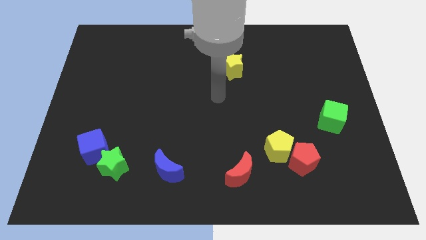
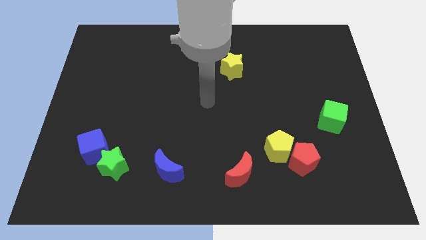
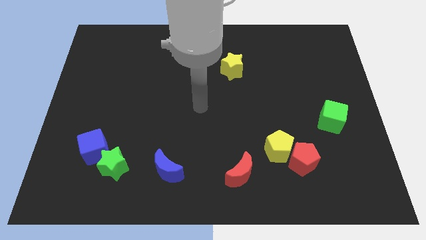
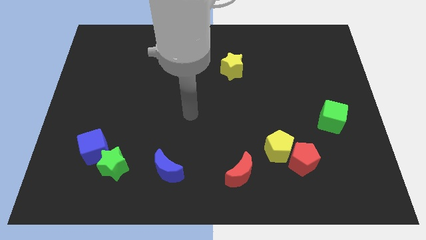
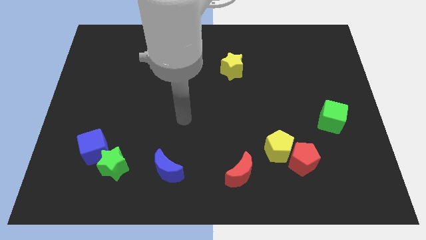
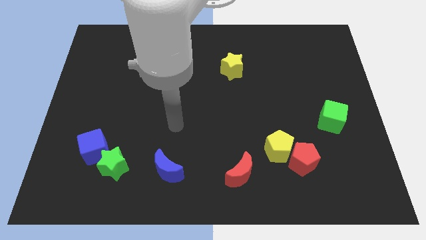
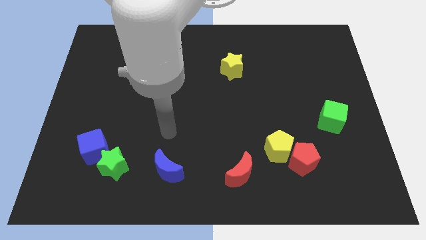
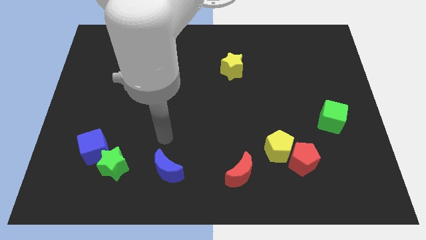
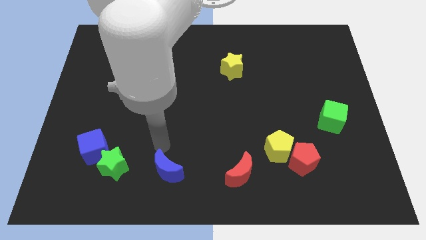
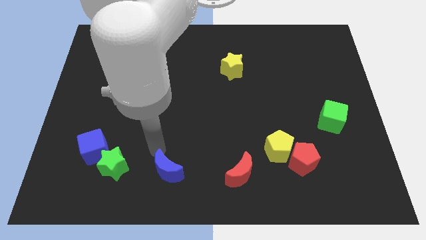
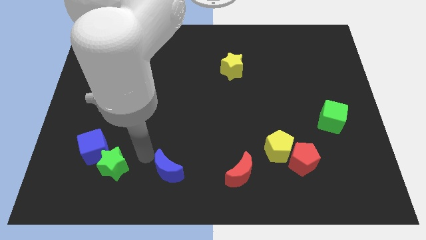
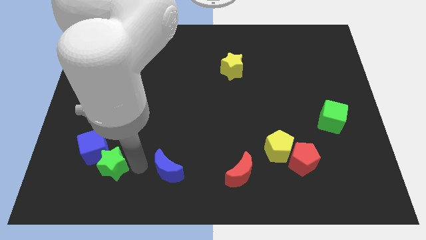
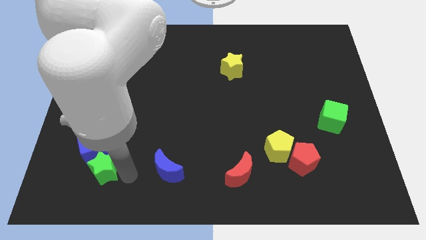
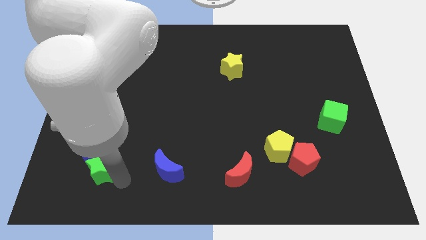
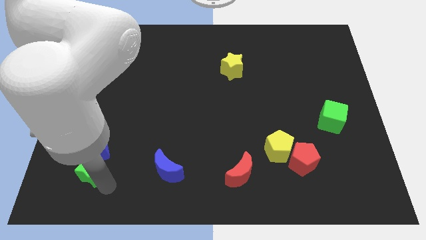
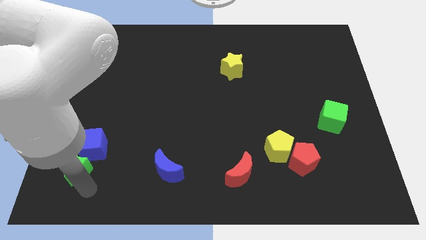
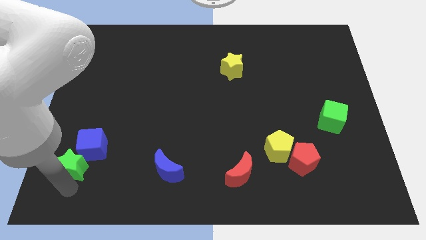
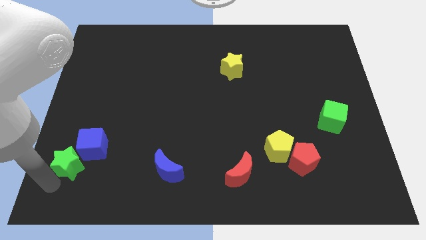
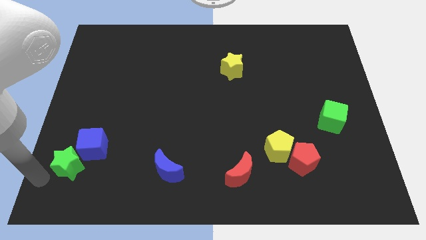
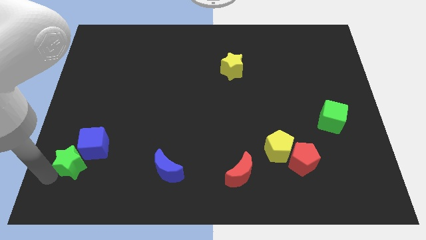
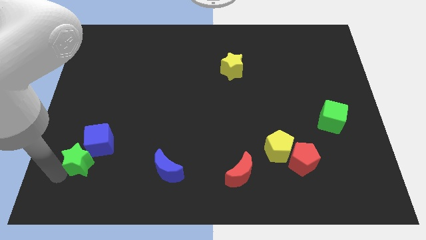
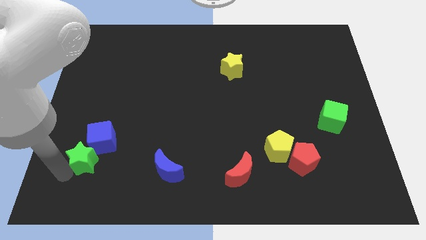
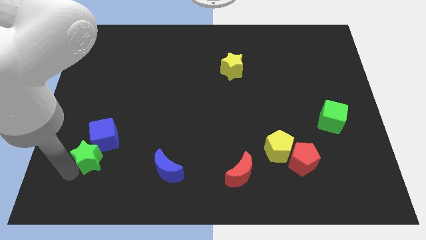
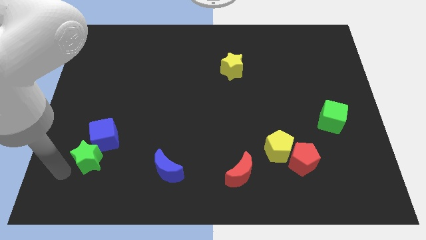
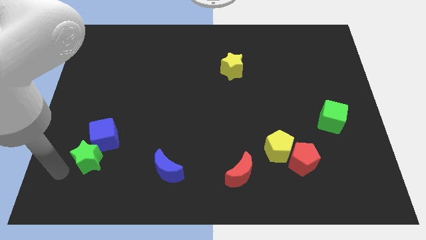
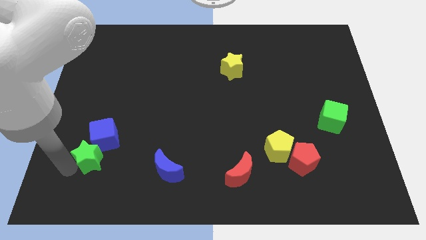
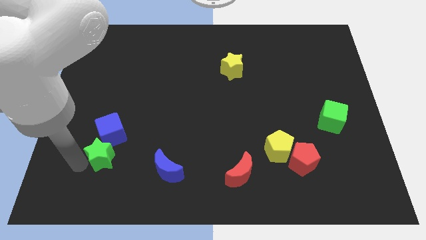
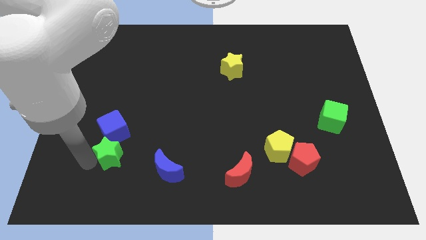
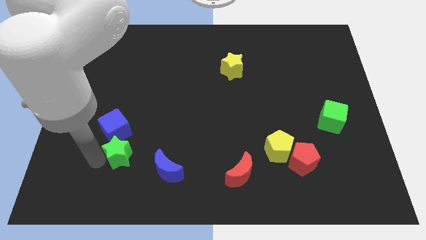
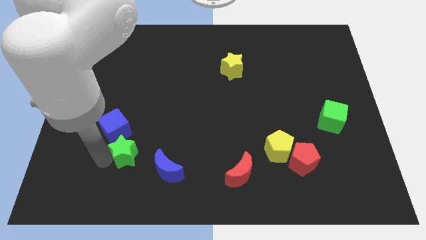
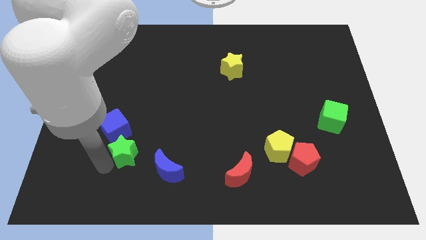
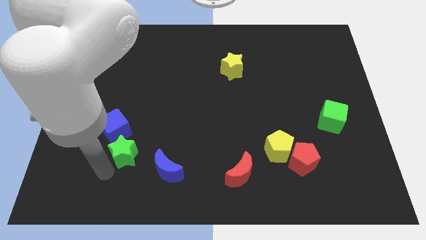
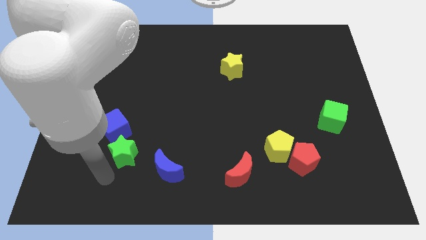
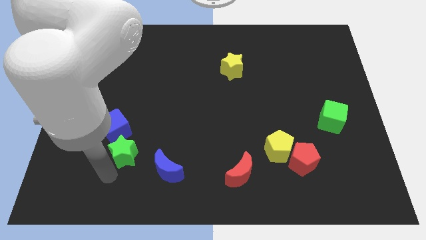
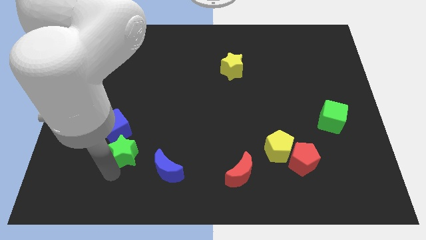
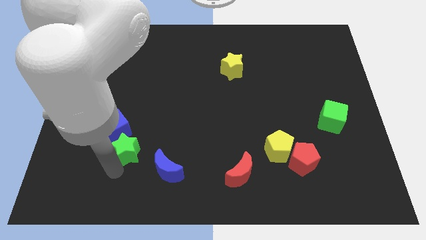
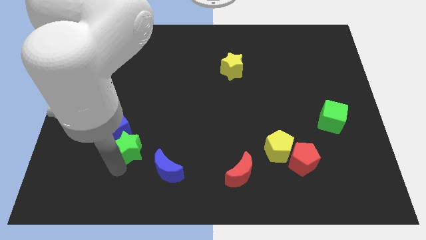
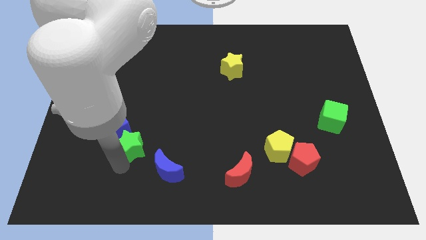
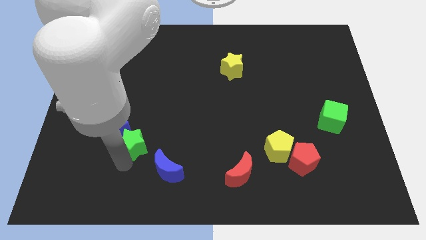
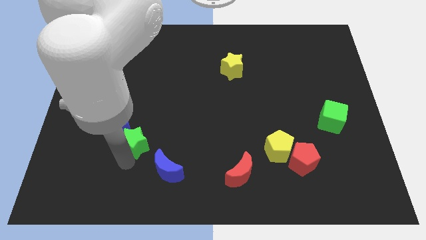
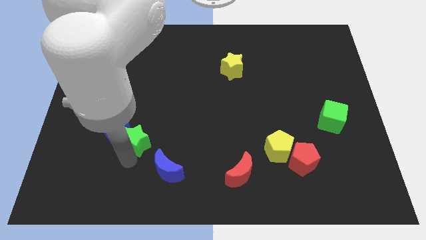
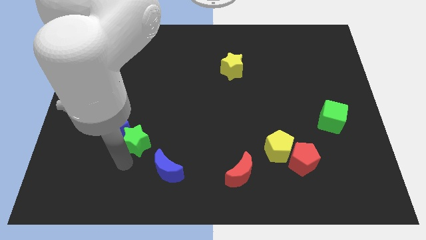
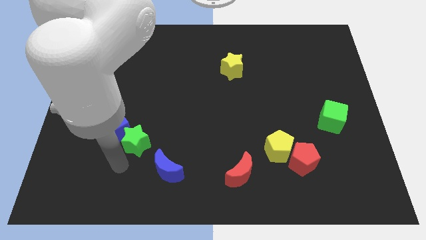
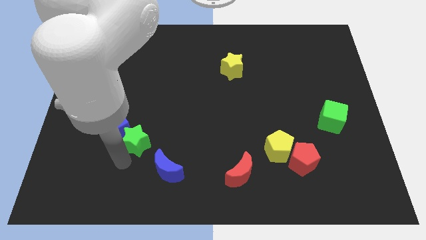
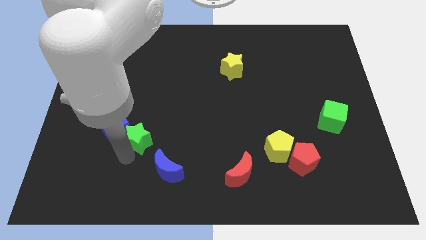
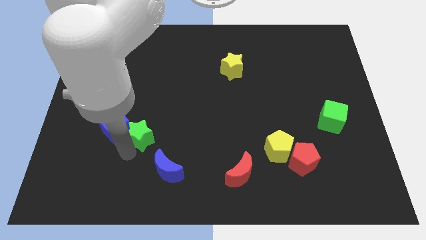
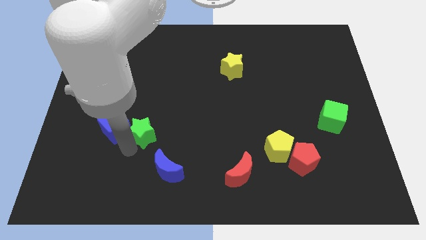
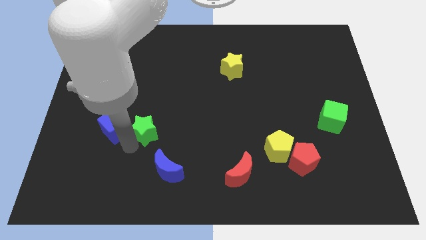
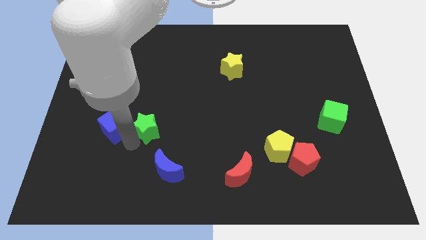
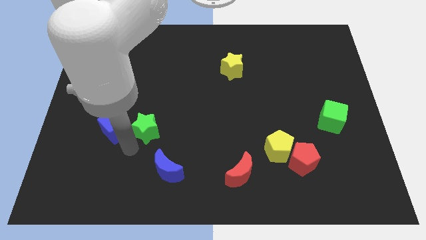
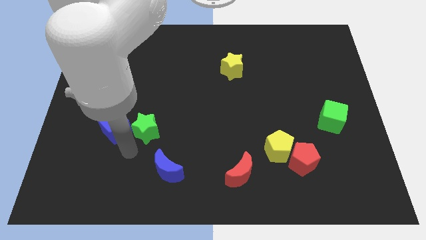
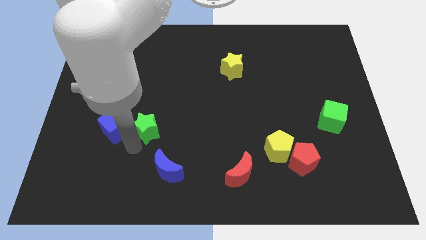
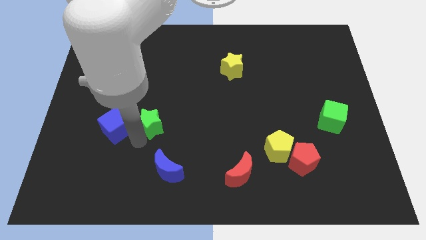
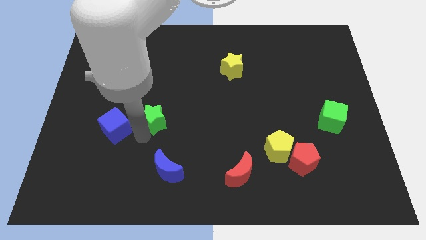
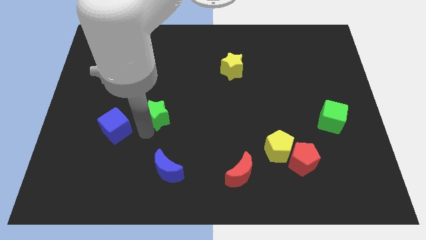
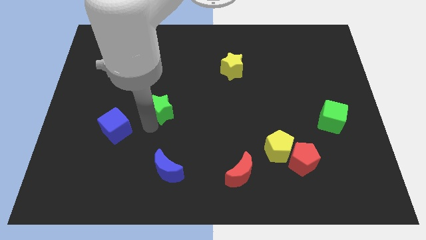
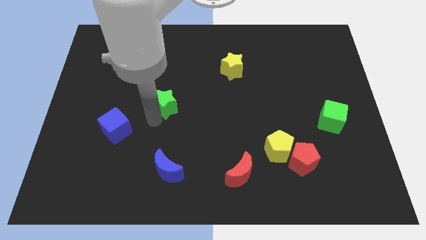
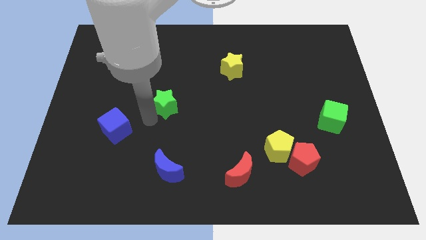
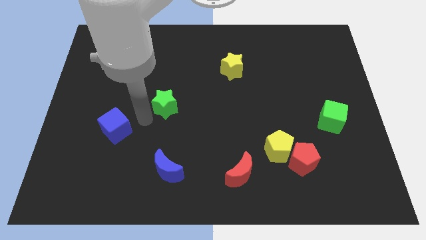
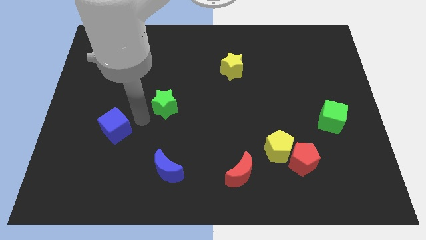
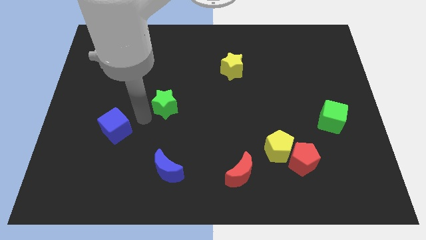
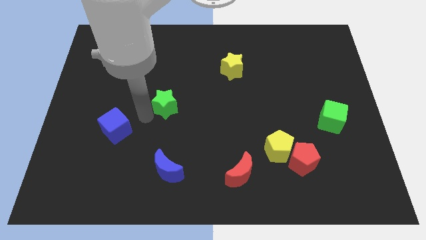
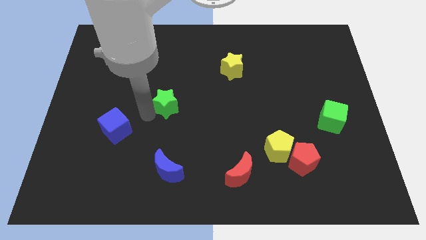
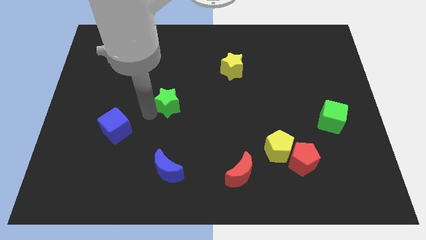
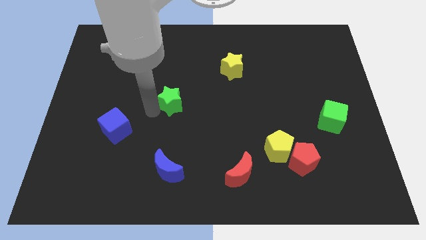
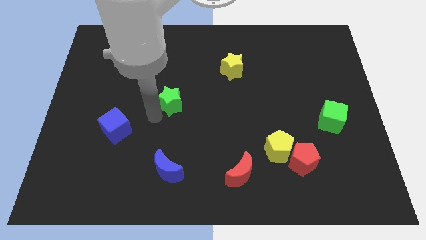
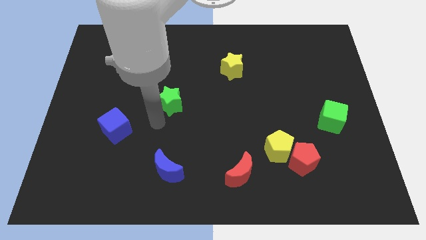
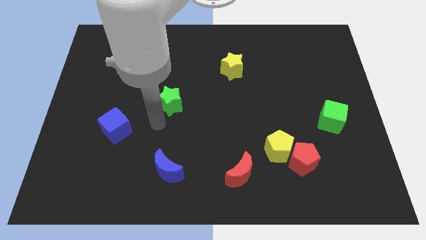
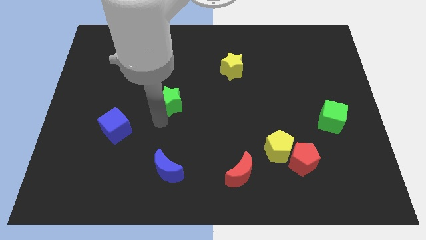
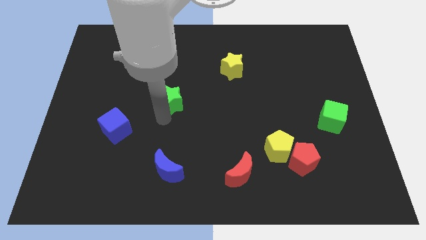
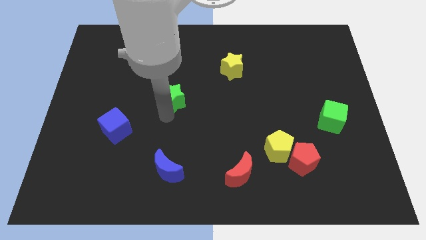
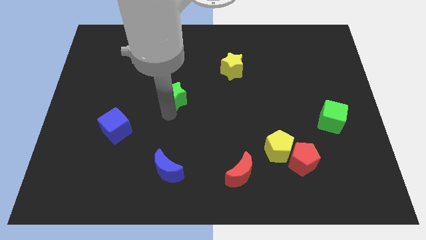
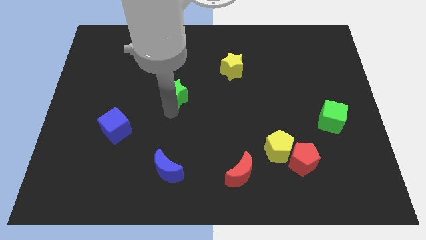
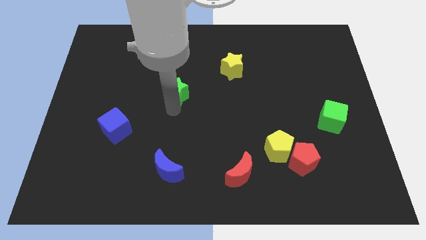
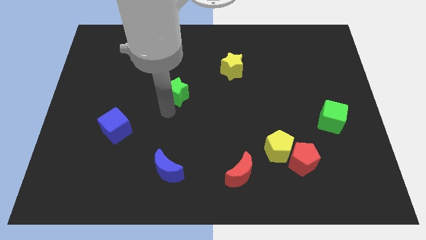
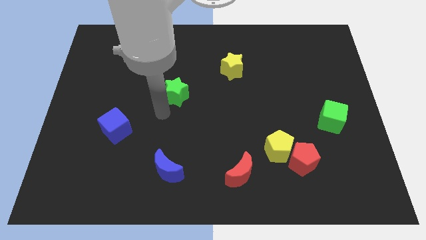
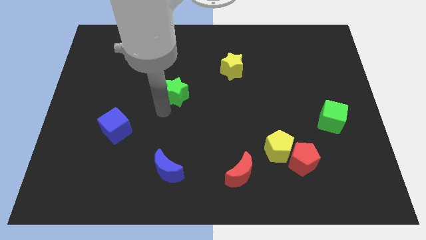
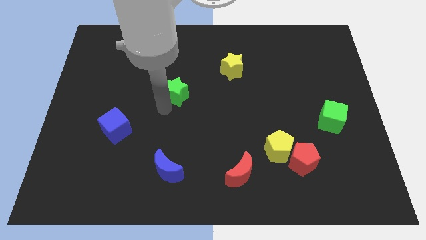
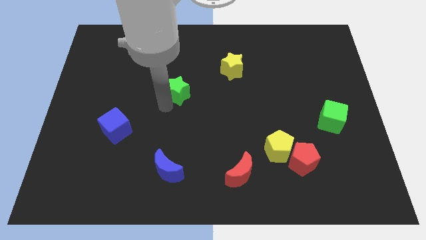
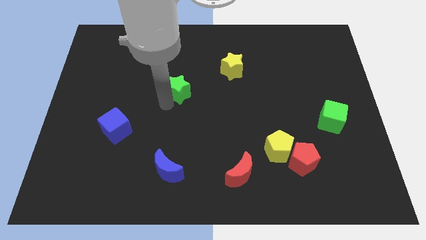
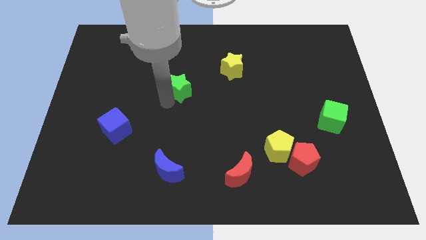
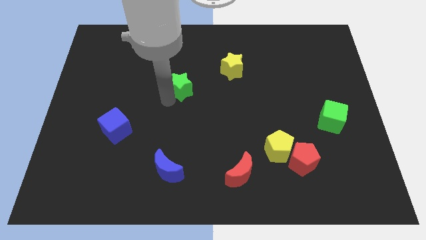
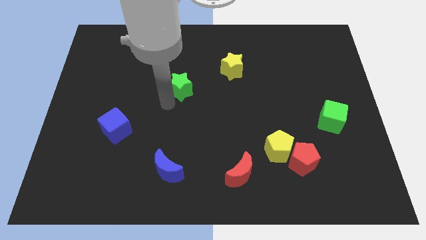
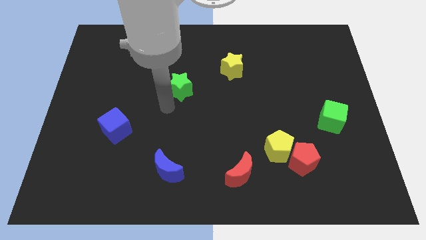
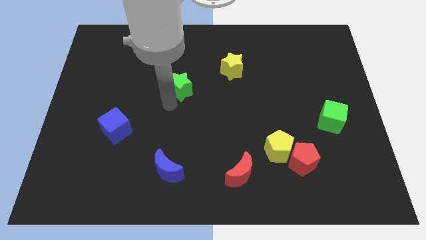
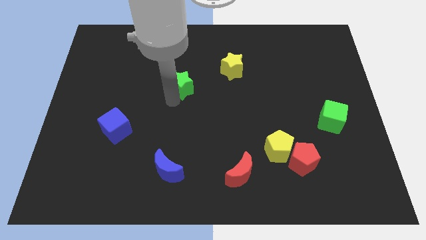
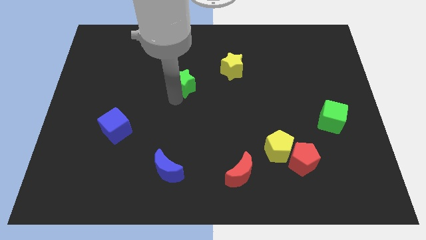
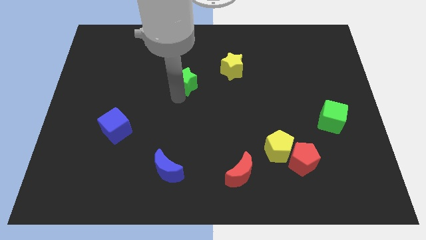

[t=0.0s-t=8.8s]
put the green star just left of the yellow star
